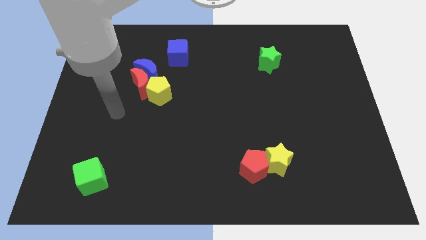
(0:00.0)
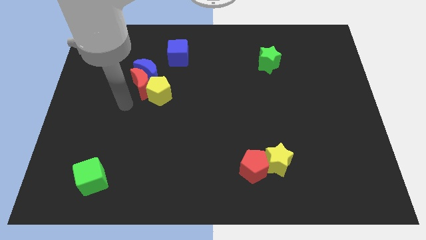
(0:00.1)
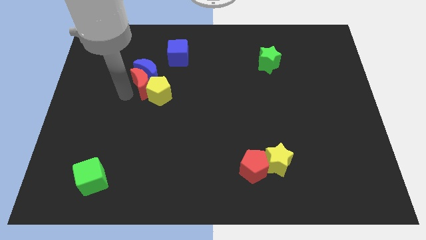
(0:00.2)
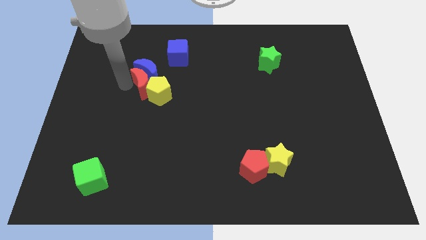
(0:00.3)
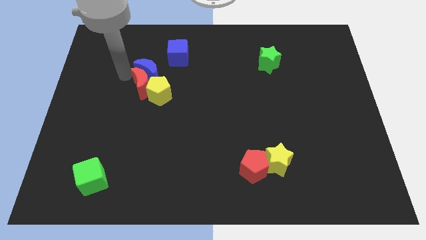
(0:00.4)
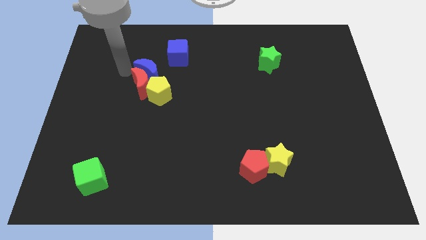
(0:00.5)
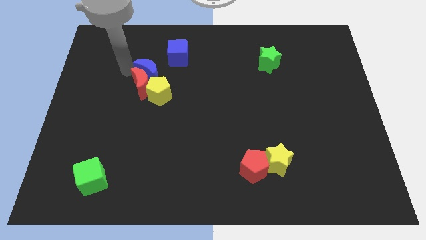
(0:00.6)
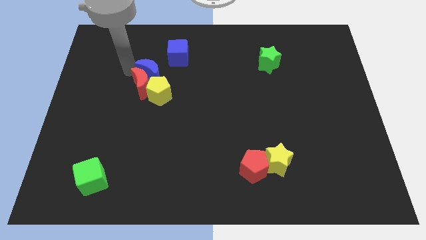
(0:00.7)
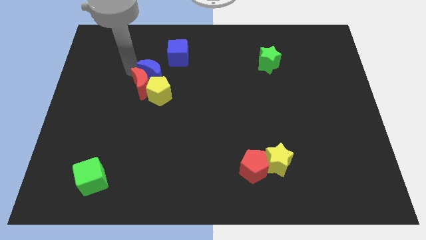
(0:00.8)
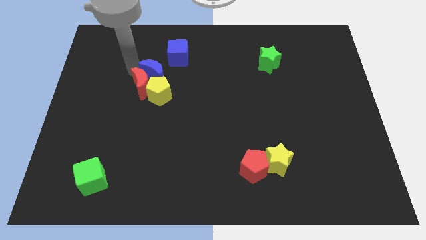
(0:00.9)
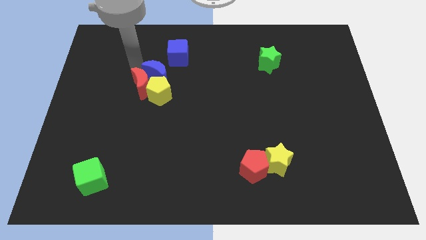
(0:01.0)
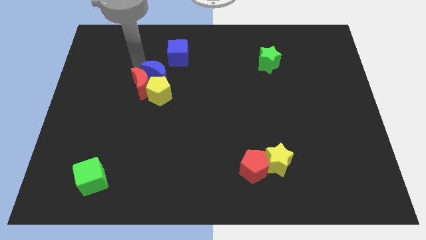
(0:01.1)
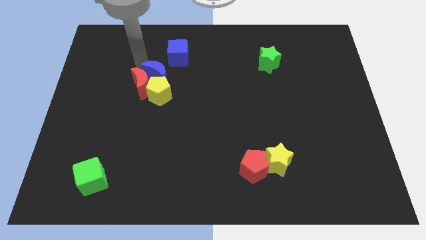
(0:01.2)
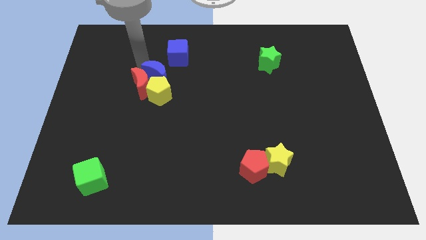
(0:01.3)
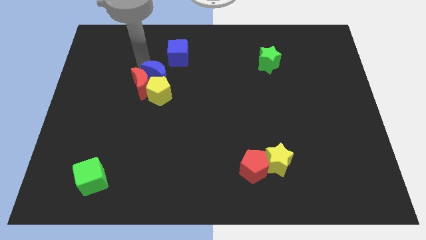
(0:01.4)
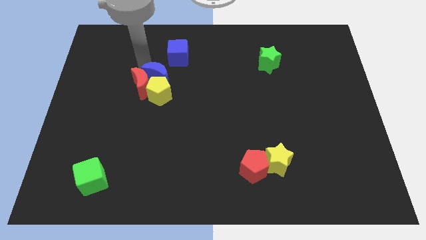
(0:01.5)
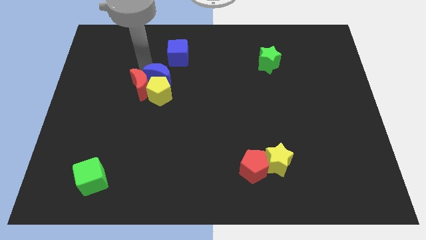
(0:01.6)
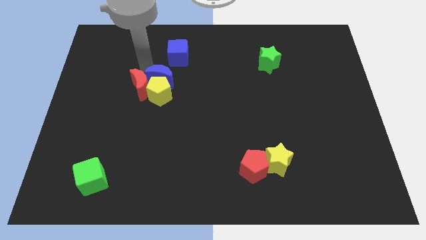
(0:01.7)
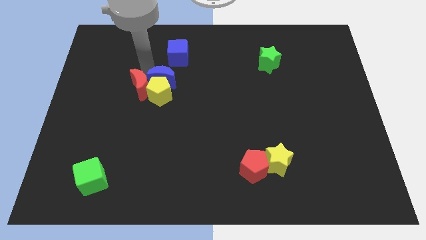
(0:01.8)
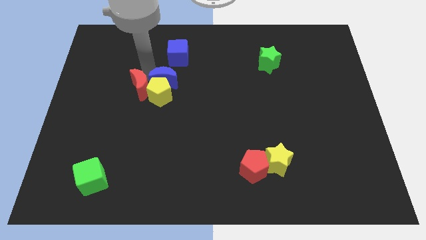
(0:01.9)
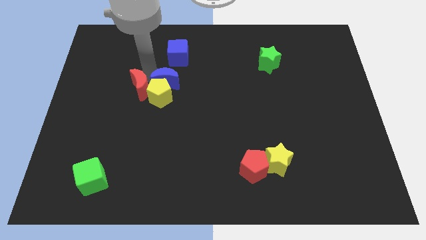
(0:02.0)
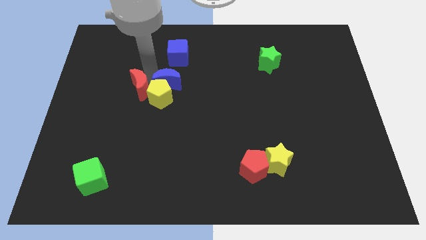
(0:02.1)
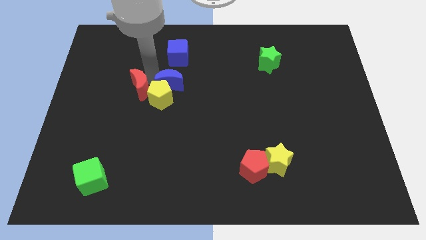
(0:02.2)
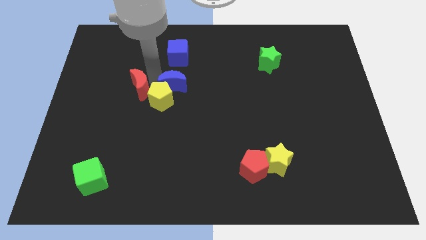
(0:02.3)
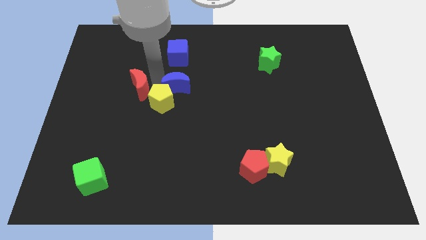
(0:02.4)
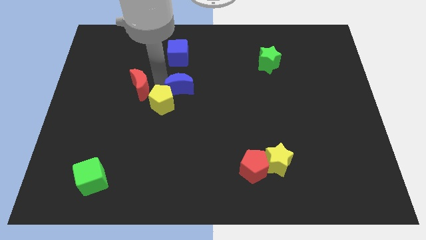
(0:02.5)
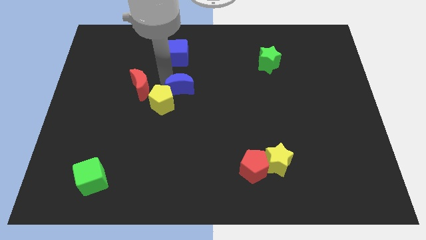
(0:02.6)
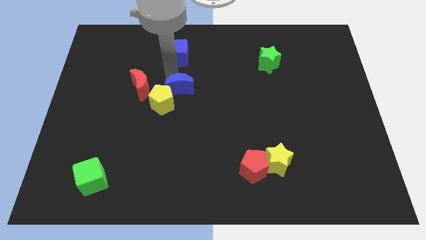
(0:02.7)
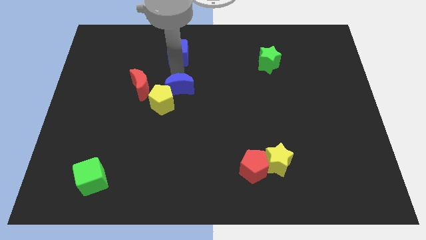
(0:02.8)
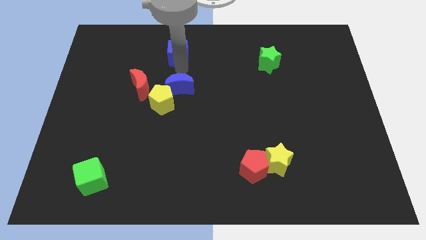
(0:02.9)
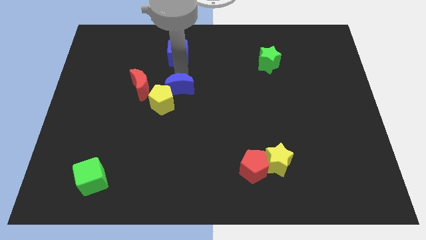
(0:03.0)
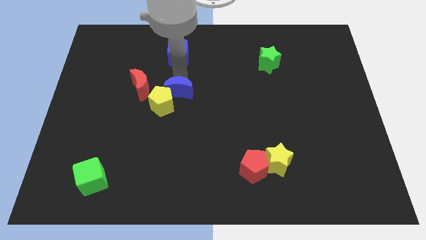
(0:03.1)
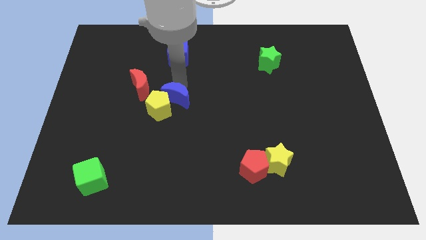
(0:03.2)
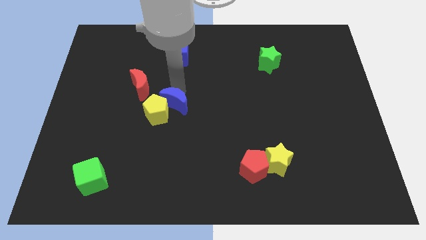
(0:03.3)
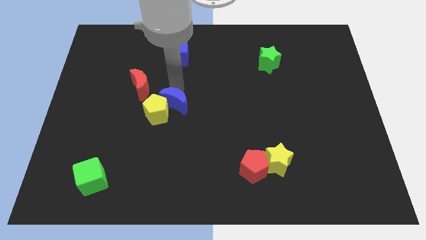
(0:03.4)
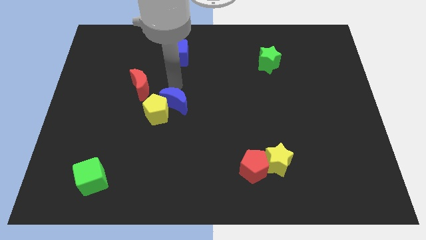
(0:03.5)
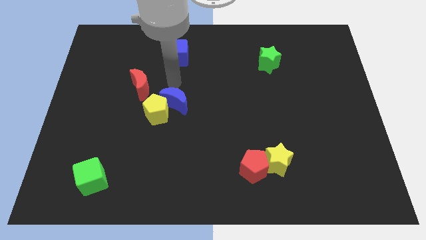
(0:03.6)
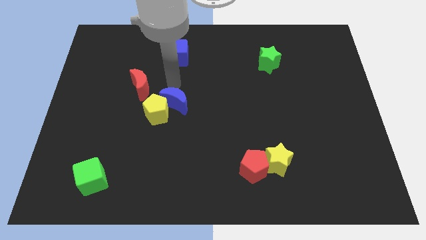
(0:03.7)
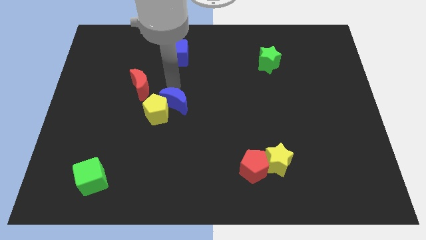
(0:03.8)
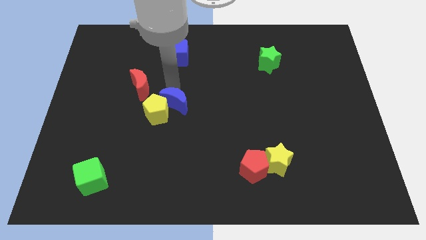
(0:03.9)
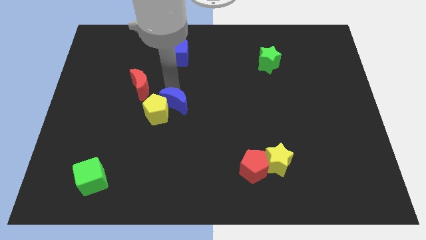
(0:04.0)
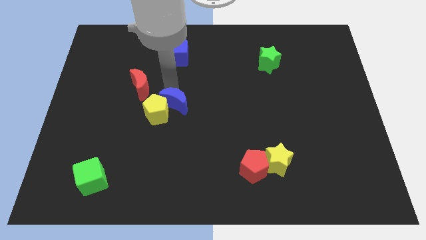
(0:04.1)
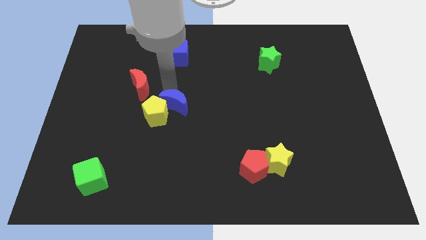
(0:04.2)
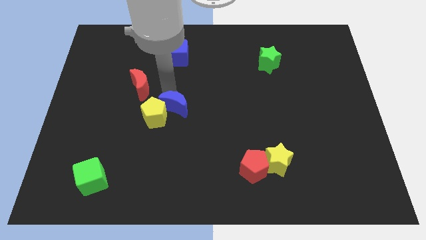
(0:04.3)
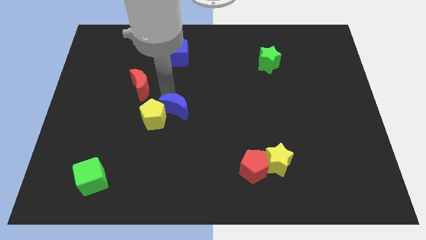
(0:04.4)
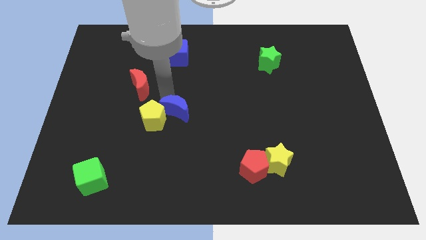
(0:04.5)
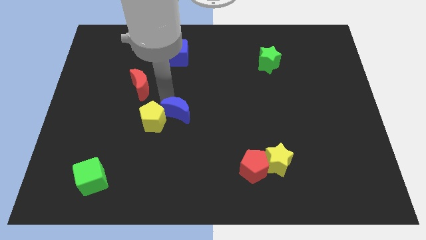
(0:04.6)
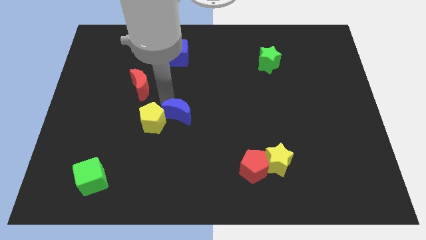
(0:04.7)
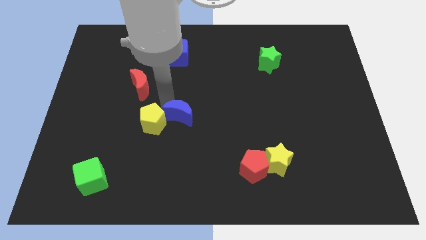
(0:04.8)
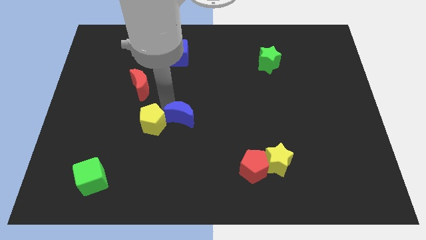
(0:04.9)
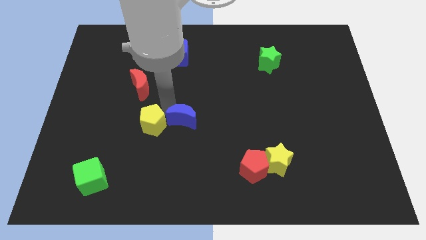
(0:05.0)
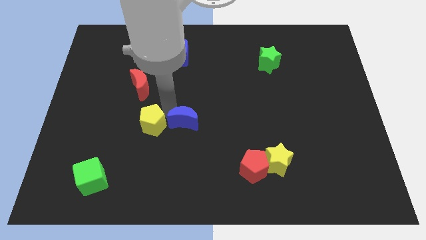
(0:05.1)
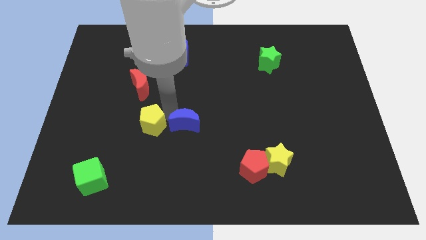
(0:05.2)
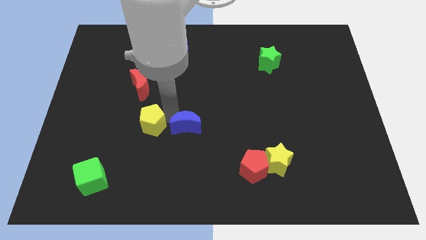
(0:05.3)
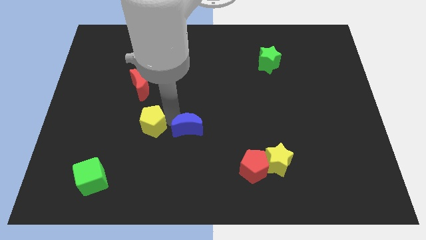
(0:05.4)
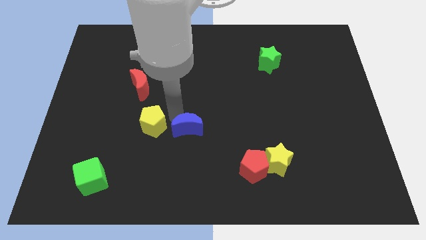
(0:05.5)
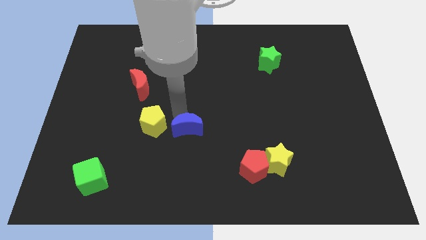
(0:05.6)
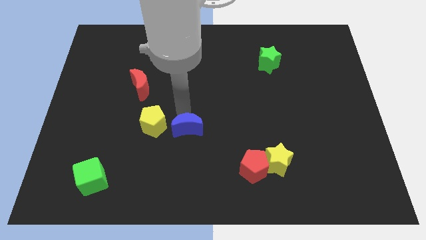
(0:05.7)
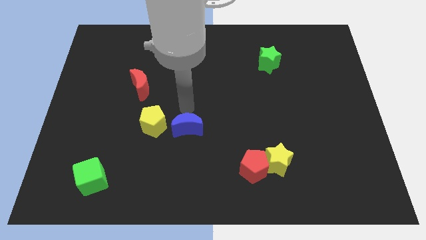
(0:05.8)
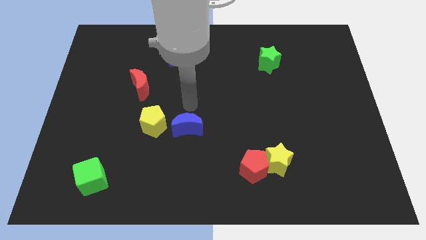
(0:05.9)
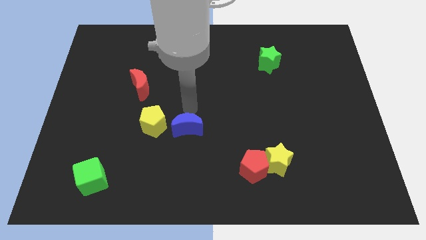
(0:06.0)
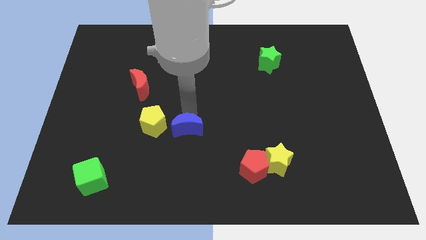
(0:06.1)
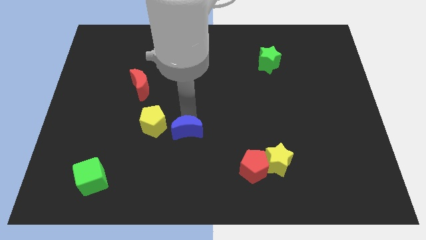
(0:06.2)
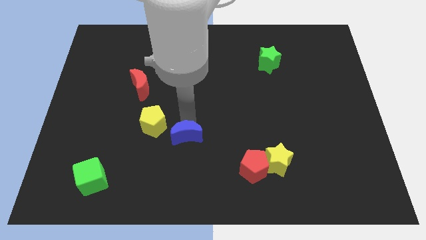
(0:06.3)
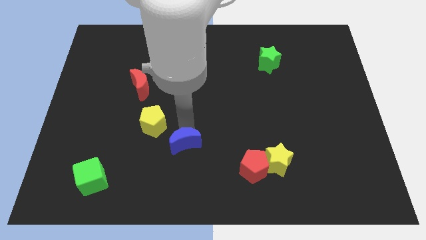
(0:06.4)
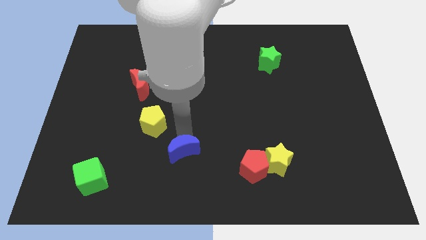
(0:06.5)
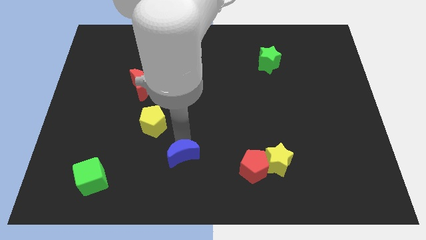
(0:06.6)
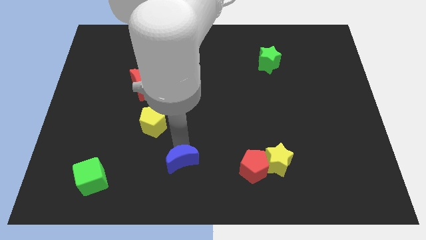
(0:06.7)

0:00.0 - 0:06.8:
move the blue moon to the bottom side

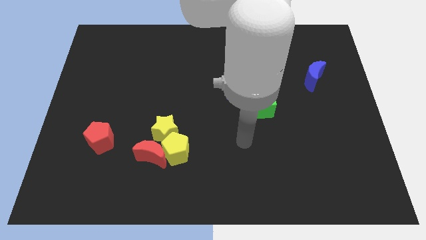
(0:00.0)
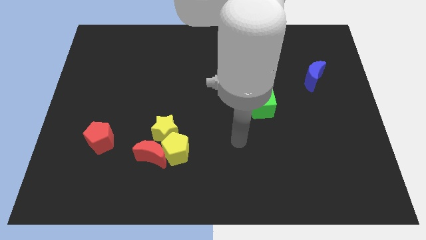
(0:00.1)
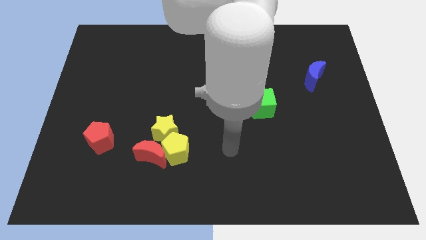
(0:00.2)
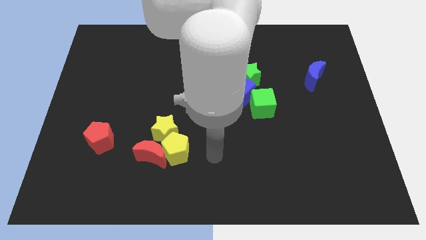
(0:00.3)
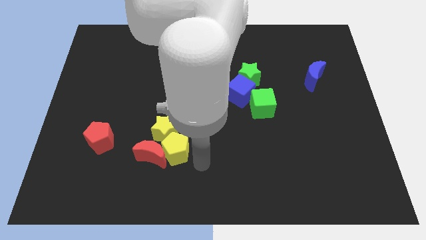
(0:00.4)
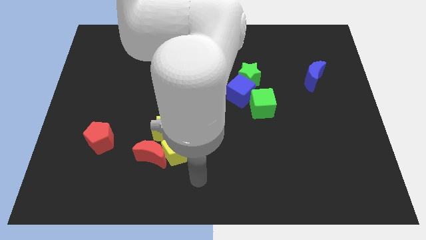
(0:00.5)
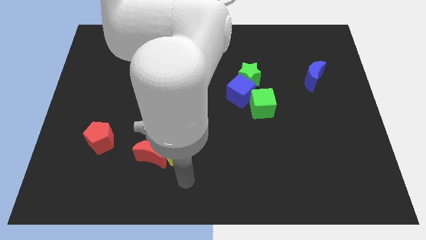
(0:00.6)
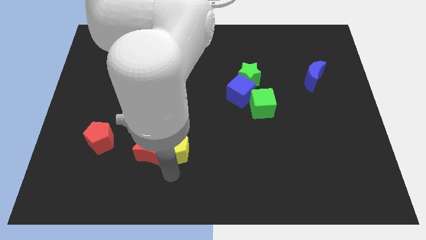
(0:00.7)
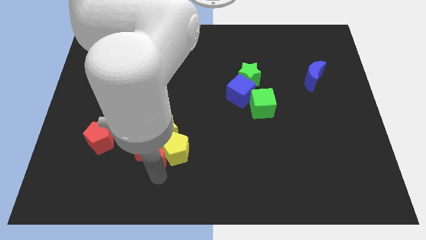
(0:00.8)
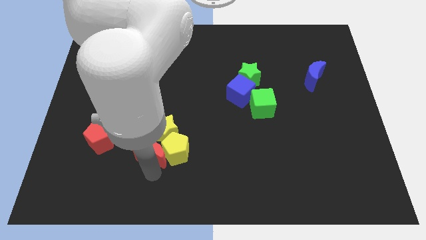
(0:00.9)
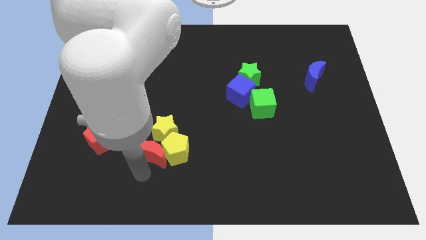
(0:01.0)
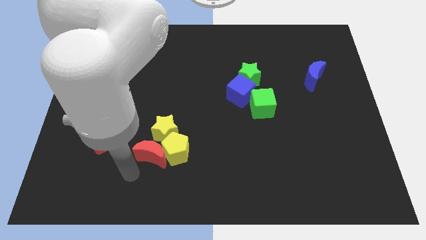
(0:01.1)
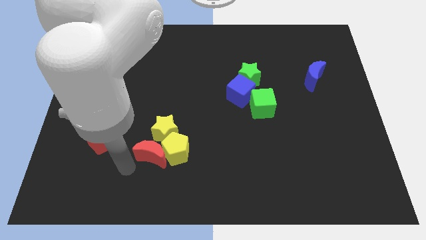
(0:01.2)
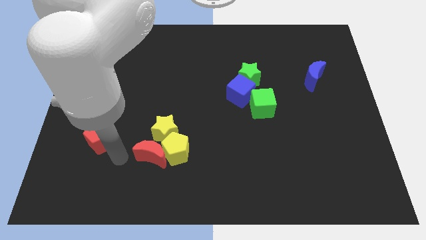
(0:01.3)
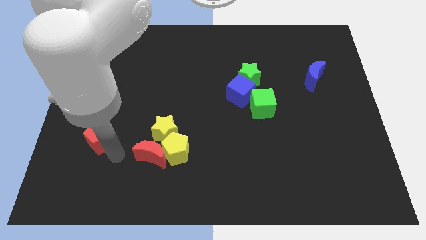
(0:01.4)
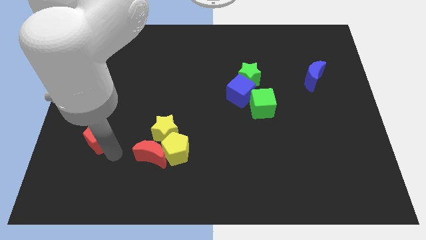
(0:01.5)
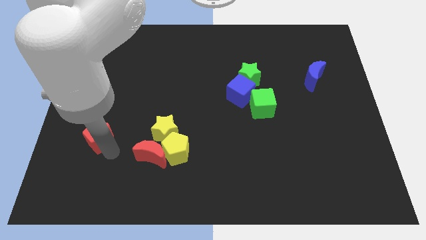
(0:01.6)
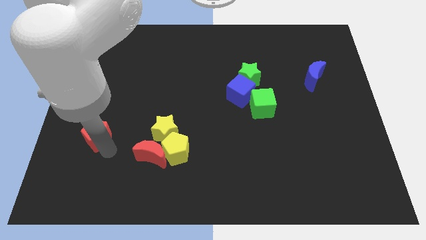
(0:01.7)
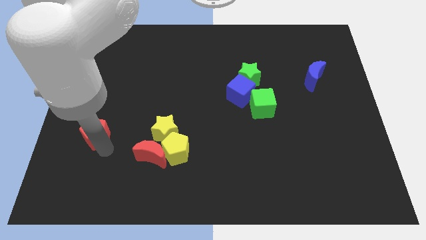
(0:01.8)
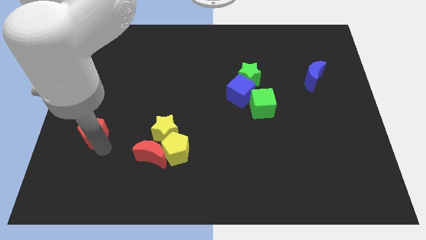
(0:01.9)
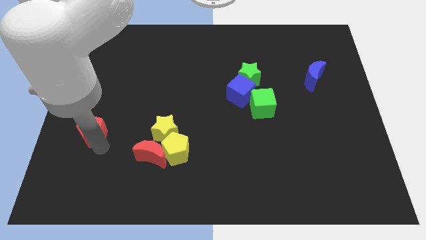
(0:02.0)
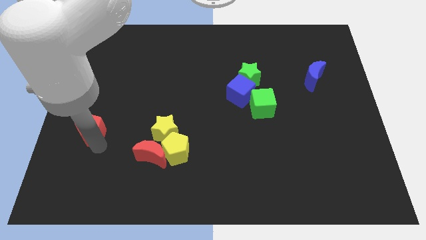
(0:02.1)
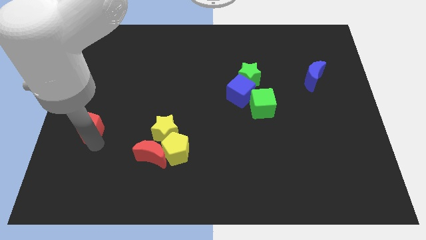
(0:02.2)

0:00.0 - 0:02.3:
push the red pentagon to the center left
